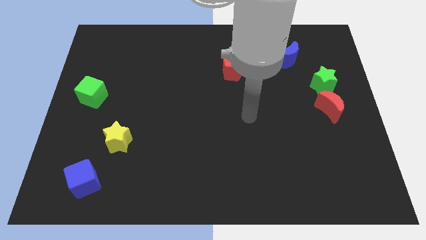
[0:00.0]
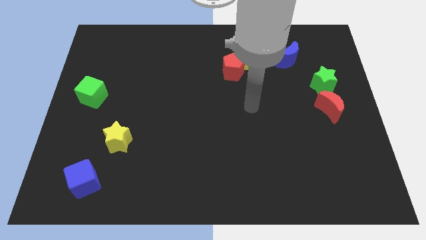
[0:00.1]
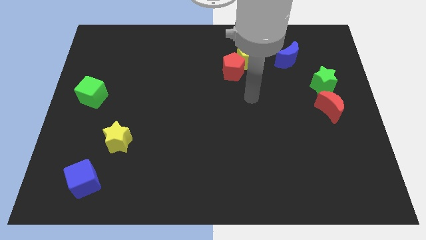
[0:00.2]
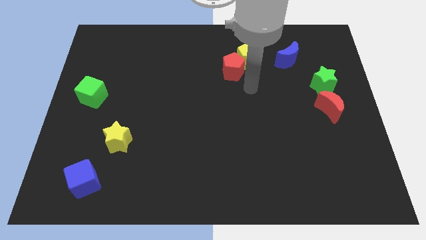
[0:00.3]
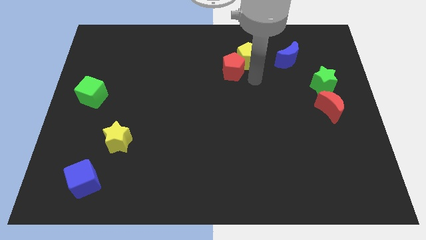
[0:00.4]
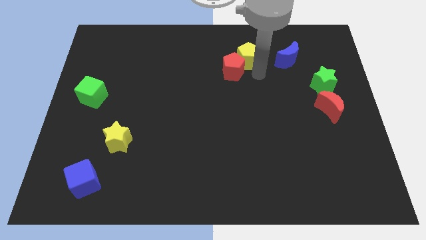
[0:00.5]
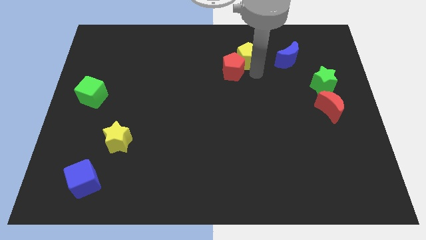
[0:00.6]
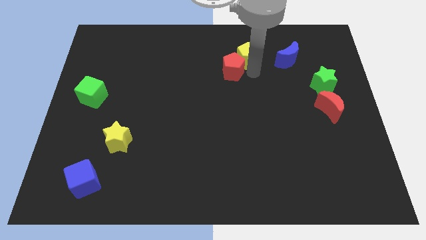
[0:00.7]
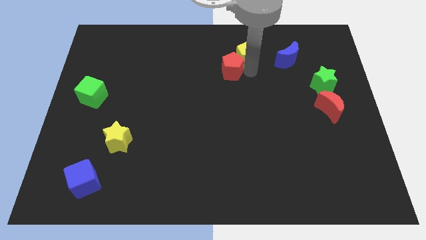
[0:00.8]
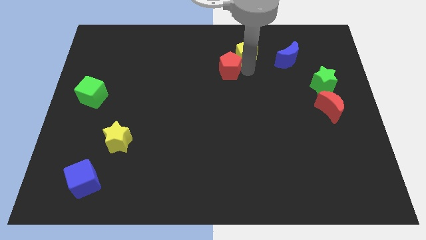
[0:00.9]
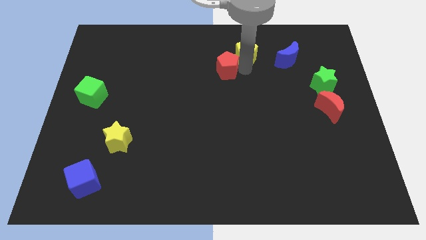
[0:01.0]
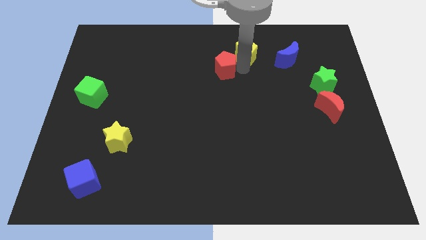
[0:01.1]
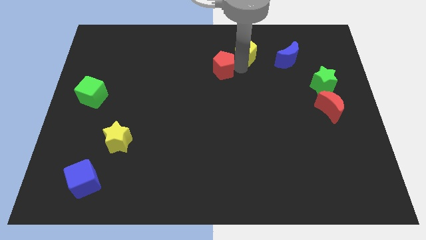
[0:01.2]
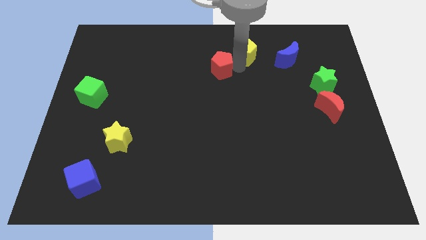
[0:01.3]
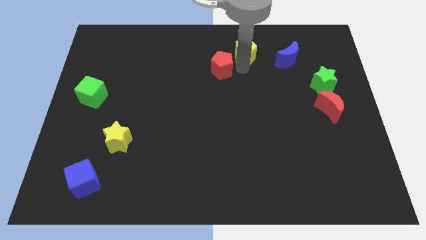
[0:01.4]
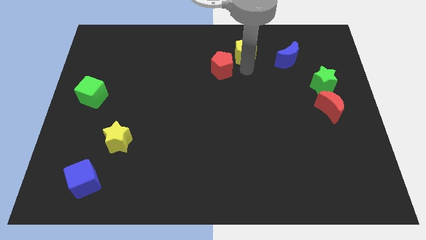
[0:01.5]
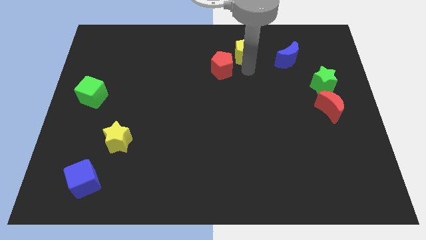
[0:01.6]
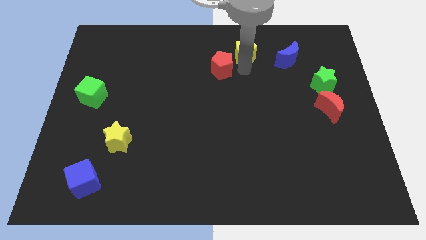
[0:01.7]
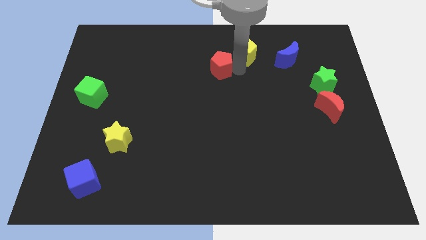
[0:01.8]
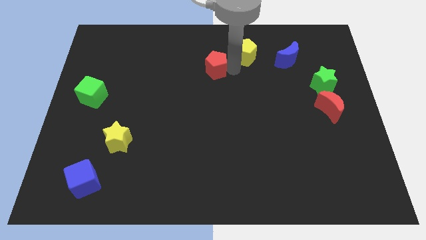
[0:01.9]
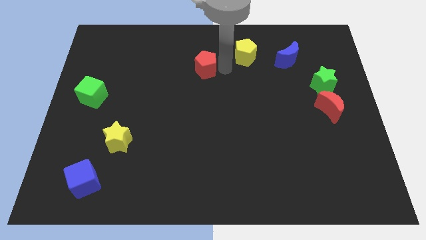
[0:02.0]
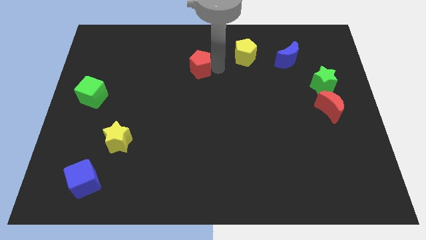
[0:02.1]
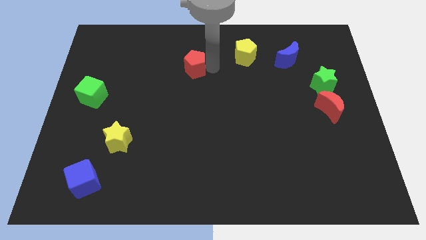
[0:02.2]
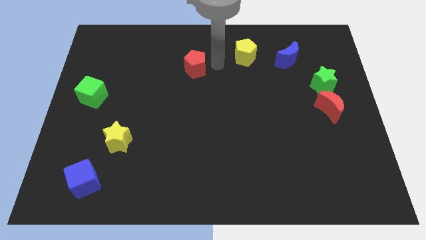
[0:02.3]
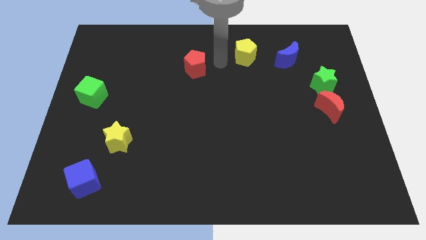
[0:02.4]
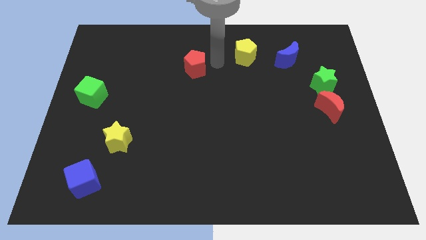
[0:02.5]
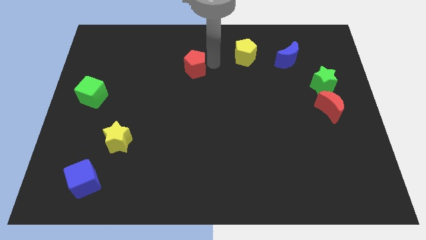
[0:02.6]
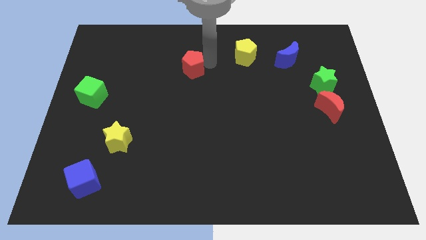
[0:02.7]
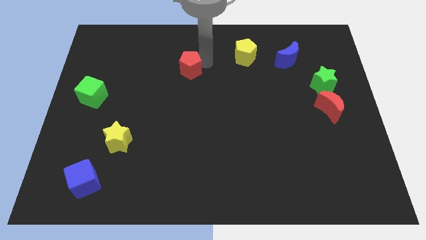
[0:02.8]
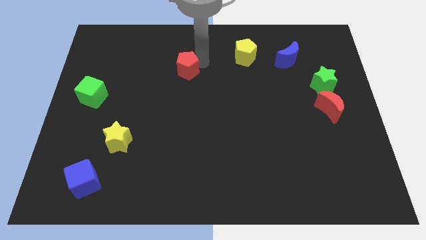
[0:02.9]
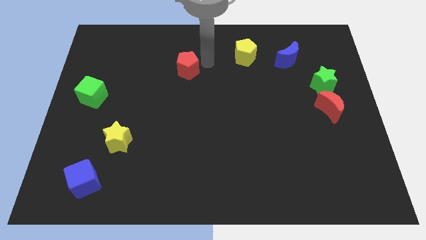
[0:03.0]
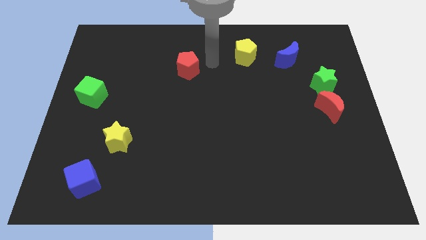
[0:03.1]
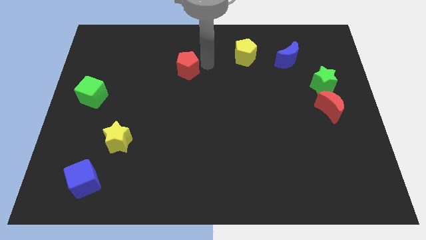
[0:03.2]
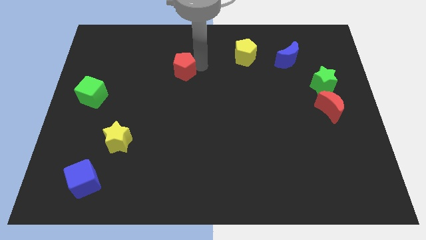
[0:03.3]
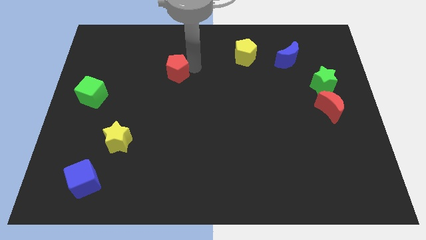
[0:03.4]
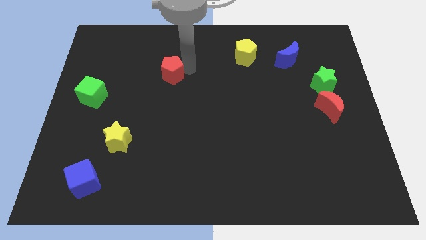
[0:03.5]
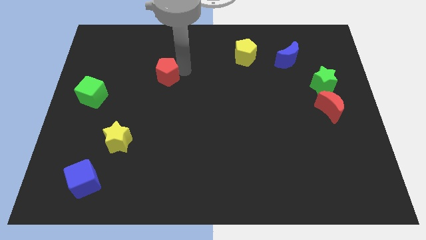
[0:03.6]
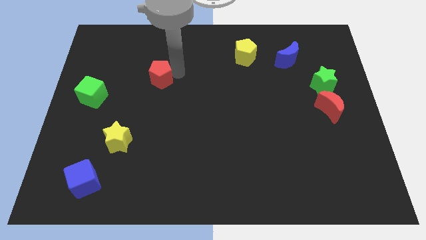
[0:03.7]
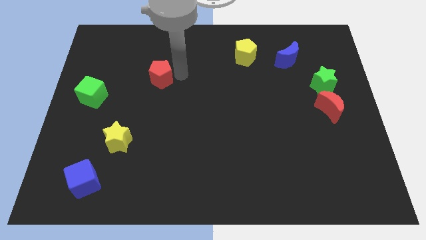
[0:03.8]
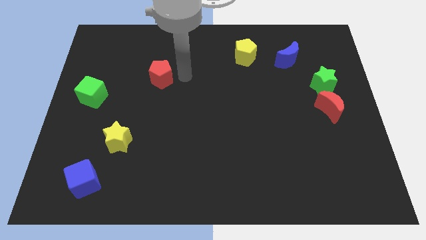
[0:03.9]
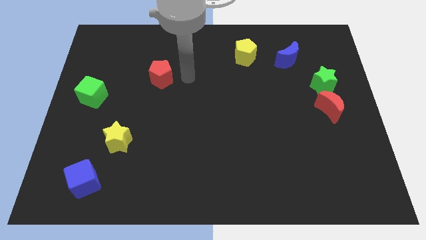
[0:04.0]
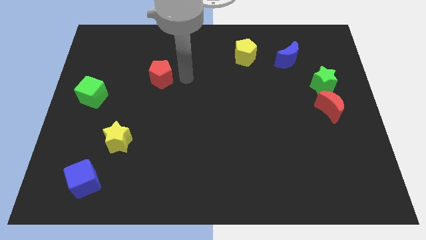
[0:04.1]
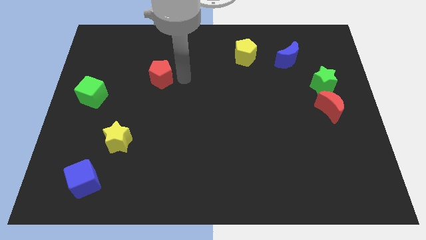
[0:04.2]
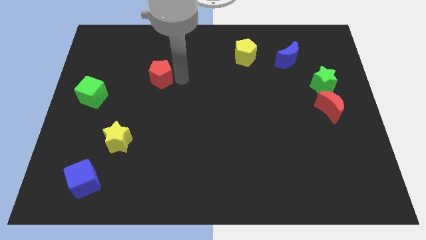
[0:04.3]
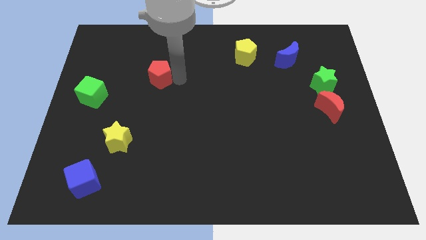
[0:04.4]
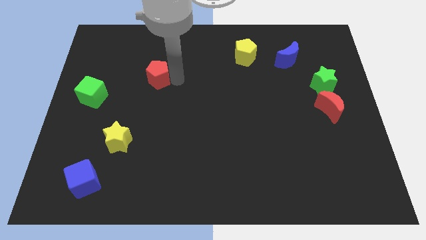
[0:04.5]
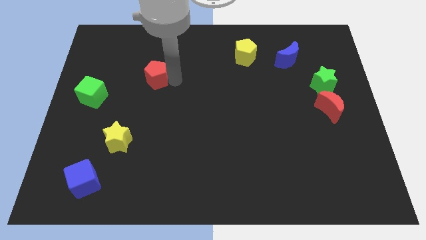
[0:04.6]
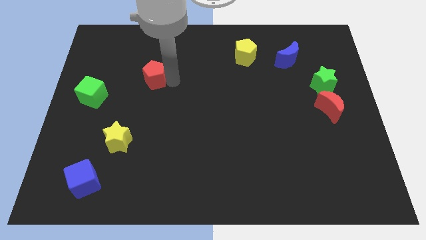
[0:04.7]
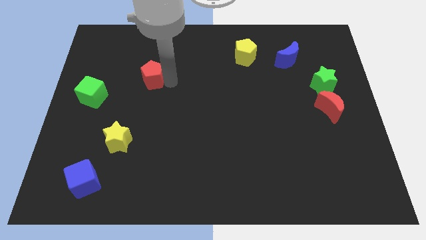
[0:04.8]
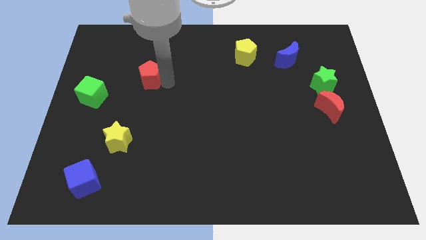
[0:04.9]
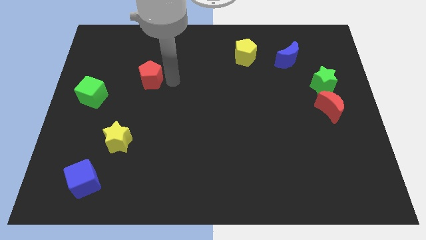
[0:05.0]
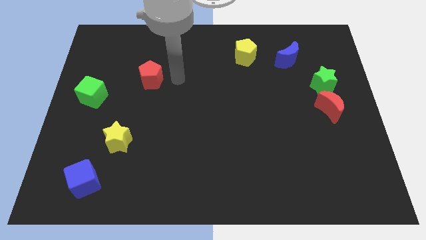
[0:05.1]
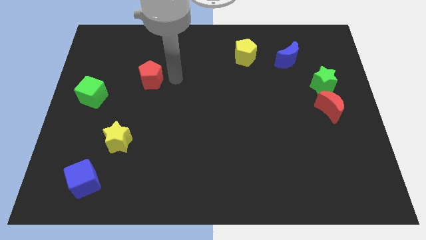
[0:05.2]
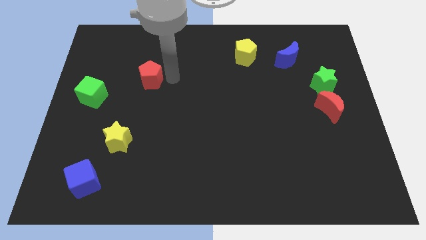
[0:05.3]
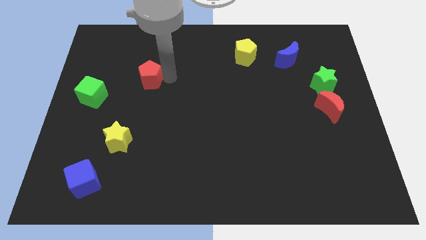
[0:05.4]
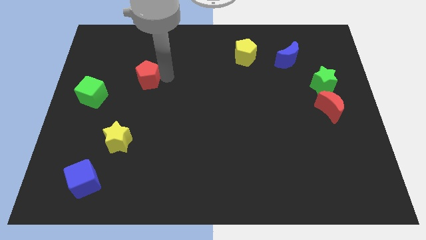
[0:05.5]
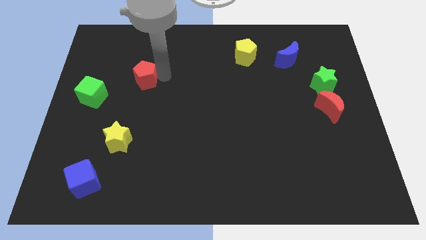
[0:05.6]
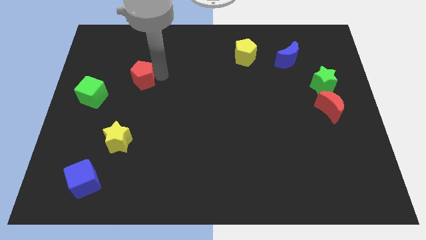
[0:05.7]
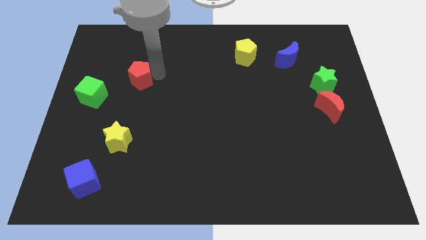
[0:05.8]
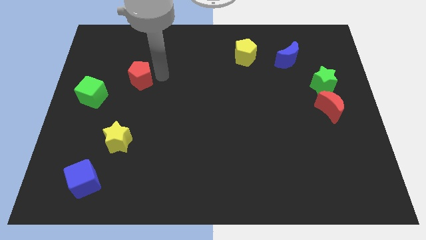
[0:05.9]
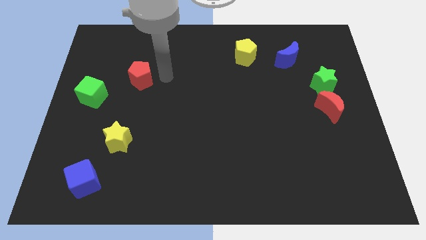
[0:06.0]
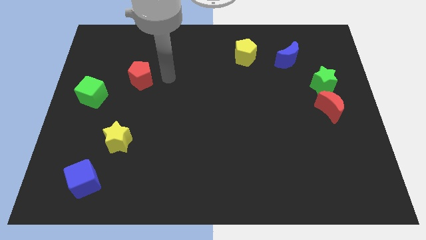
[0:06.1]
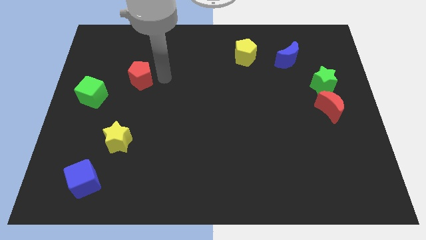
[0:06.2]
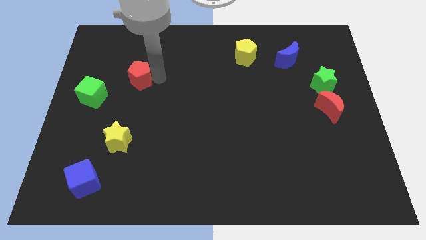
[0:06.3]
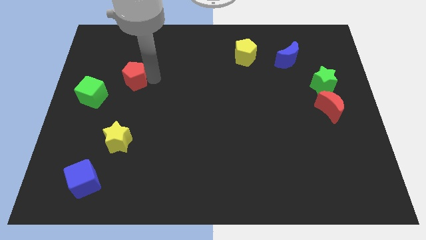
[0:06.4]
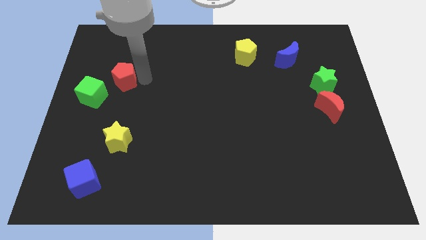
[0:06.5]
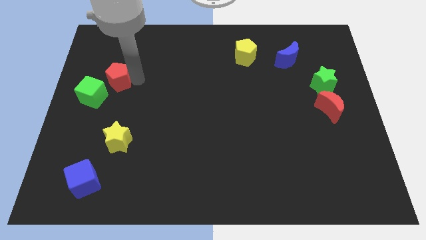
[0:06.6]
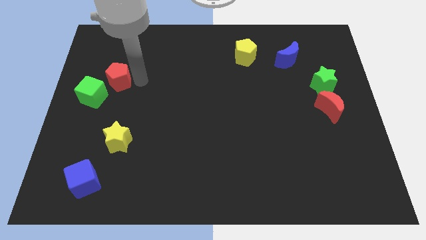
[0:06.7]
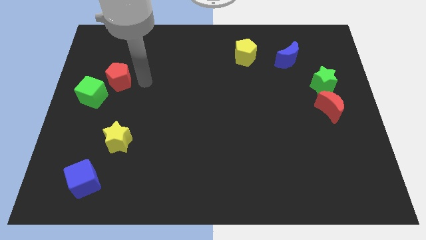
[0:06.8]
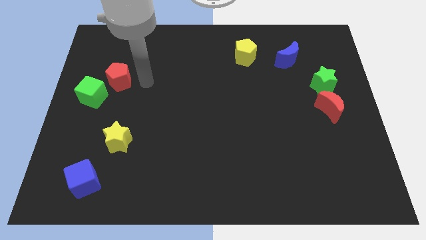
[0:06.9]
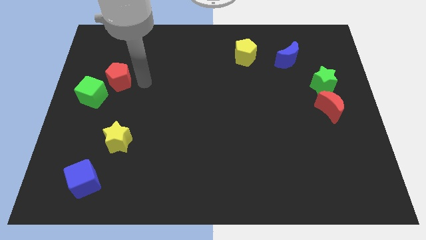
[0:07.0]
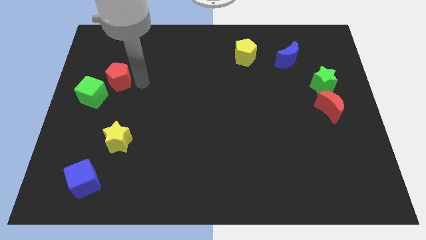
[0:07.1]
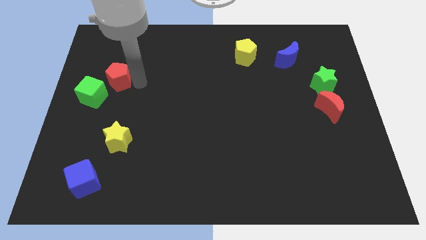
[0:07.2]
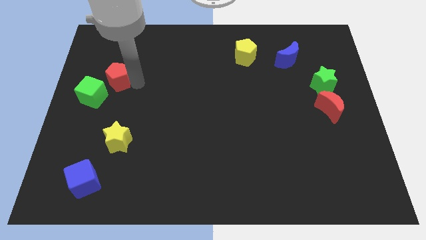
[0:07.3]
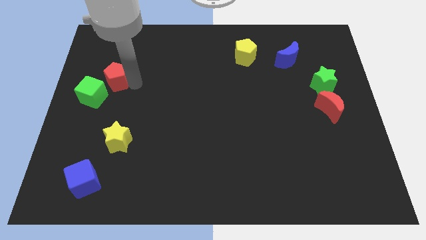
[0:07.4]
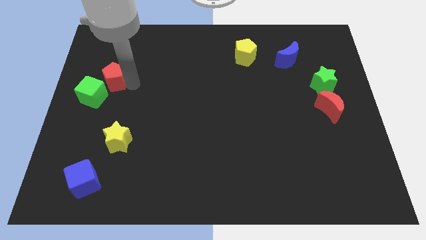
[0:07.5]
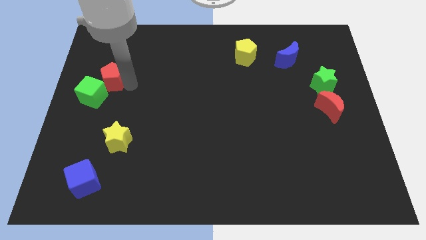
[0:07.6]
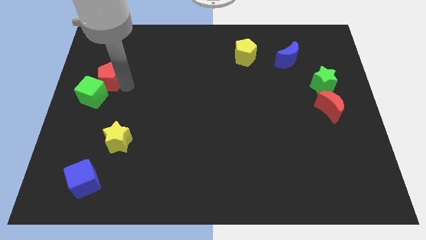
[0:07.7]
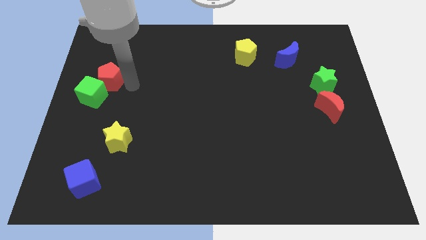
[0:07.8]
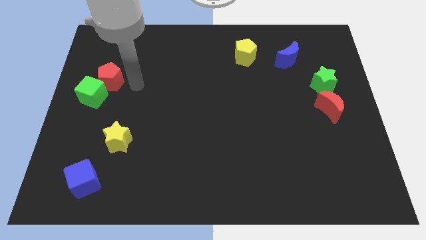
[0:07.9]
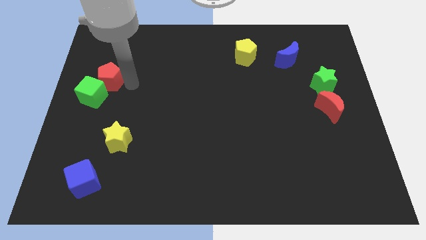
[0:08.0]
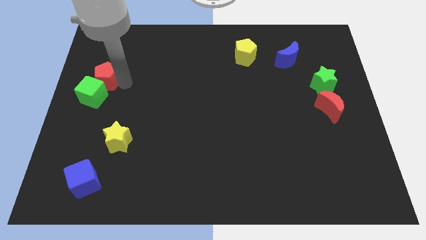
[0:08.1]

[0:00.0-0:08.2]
move the red pentagon to the center left
